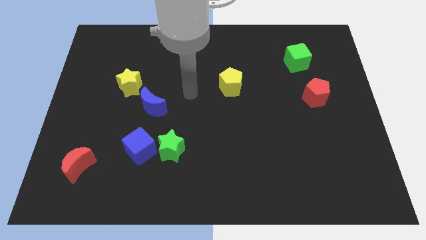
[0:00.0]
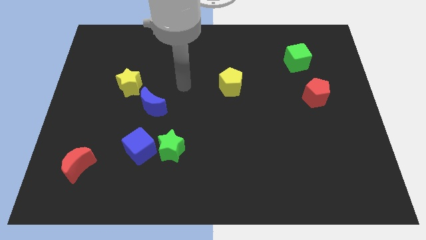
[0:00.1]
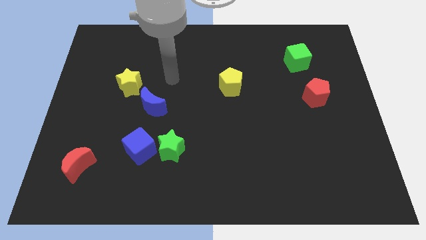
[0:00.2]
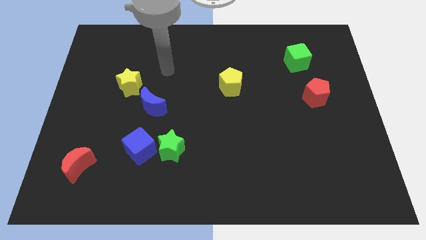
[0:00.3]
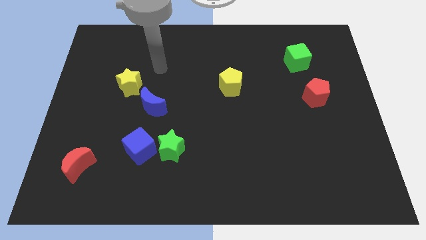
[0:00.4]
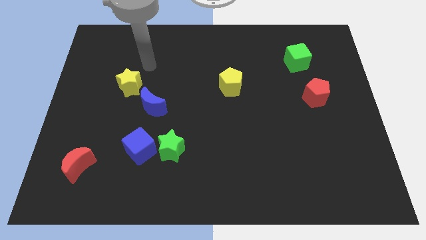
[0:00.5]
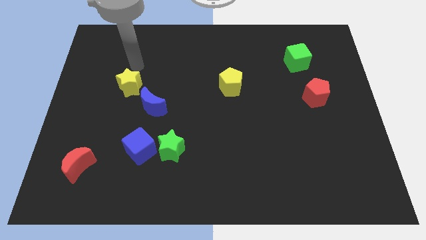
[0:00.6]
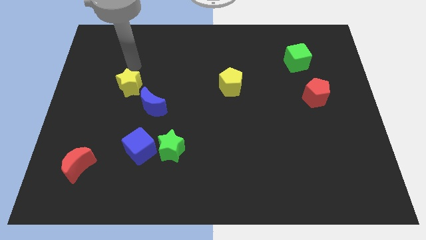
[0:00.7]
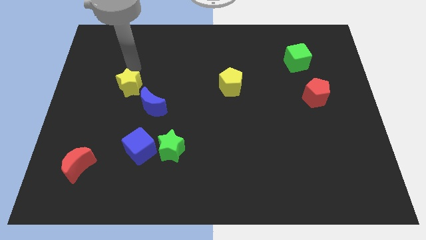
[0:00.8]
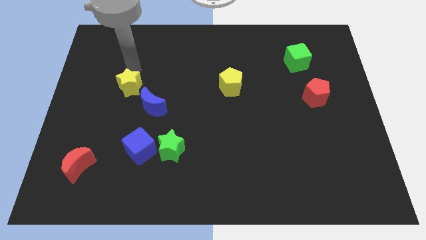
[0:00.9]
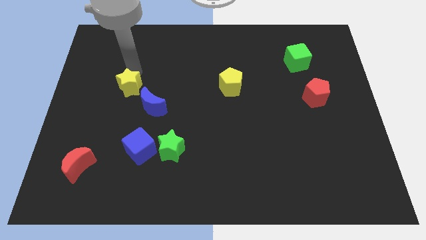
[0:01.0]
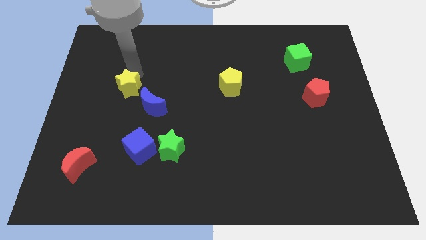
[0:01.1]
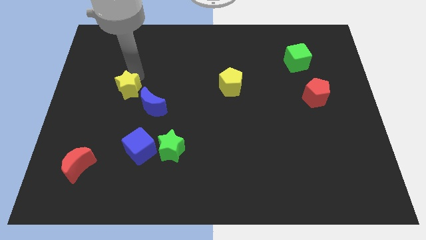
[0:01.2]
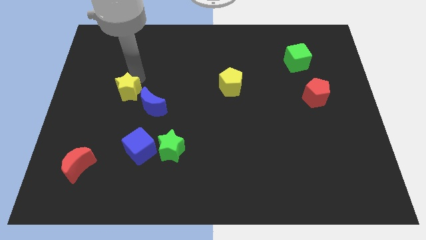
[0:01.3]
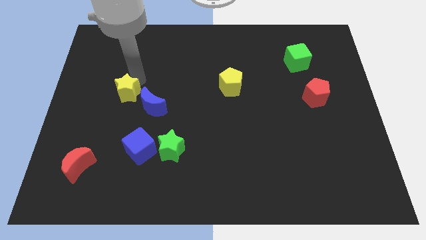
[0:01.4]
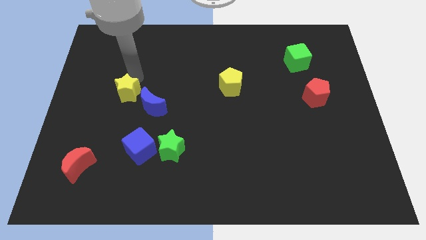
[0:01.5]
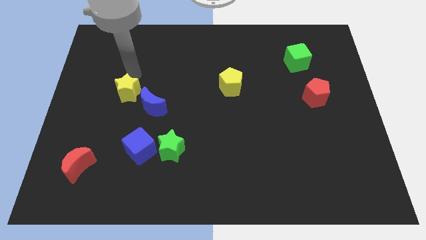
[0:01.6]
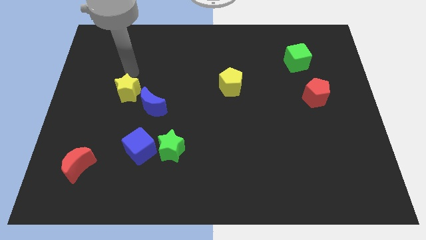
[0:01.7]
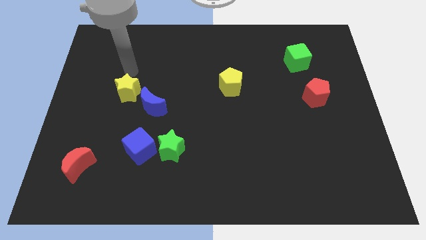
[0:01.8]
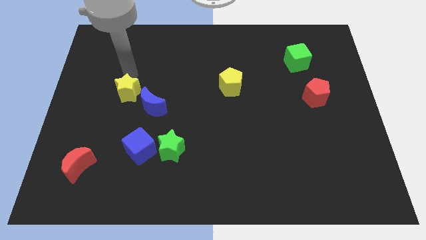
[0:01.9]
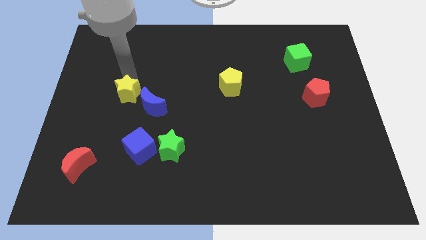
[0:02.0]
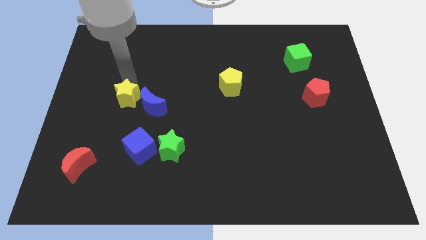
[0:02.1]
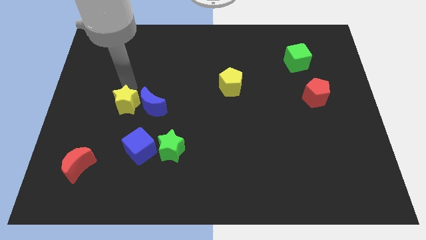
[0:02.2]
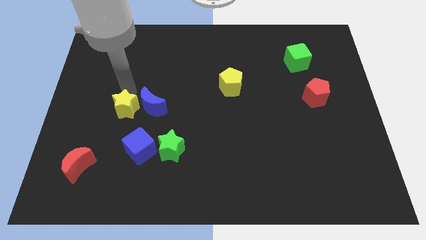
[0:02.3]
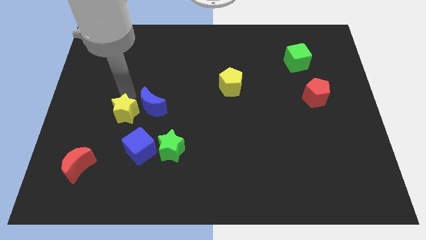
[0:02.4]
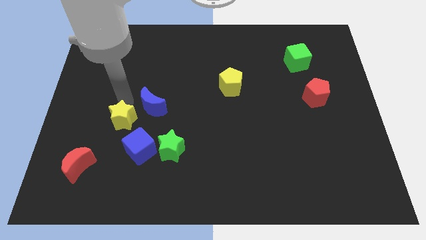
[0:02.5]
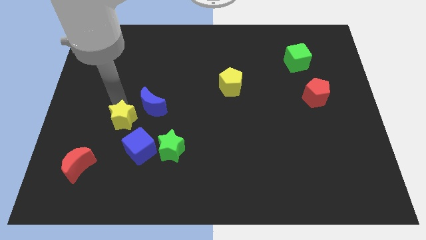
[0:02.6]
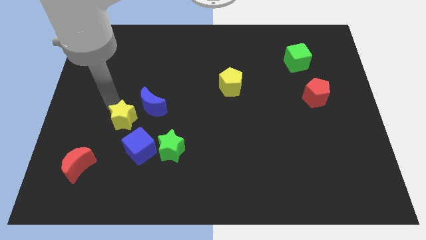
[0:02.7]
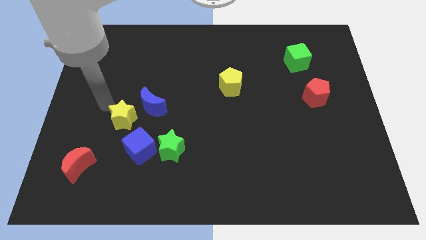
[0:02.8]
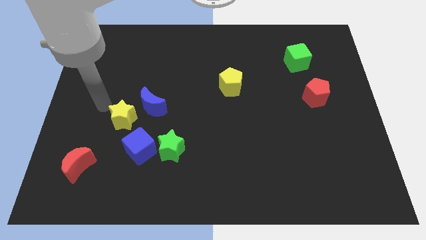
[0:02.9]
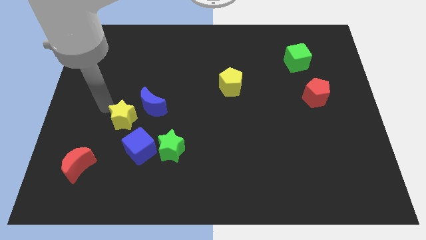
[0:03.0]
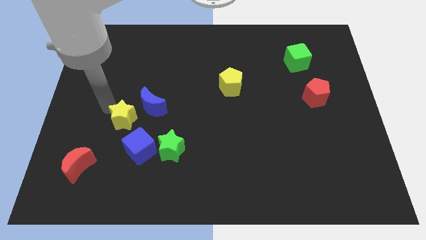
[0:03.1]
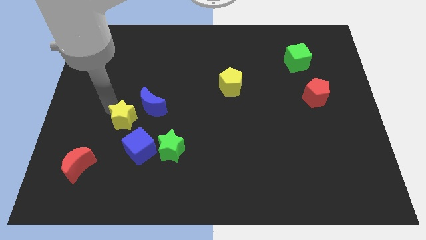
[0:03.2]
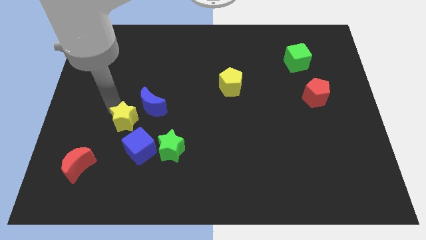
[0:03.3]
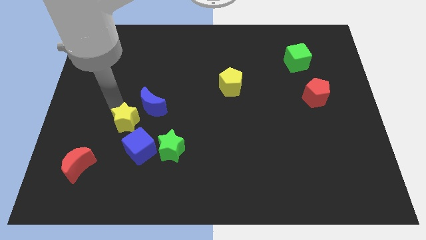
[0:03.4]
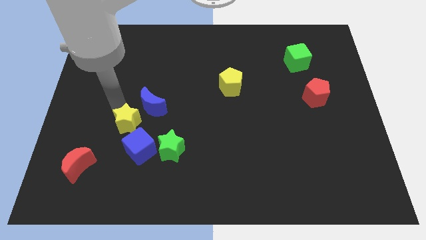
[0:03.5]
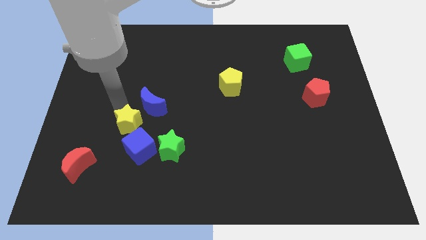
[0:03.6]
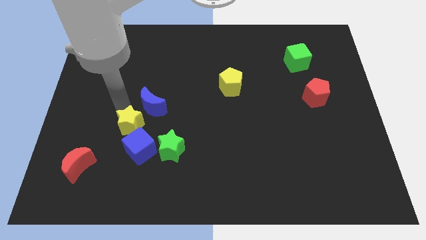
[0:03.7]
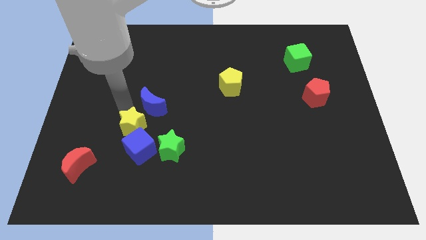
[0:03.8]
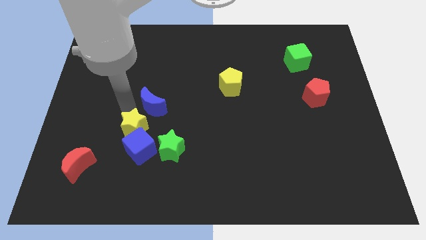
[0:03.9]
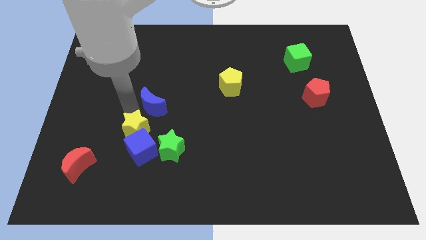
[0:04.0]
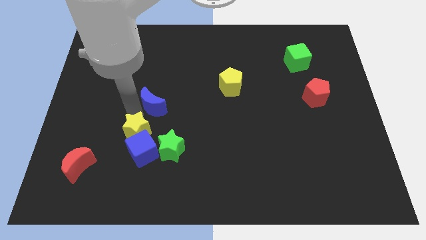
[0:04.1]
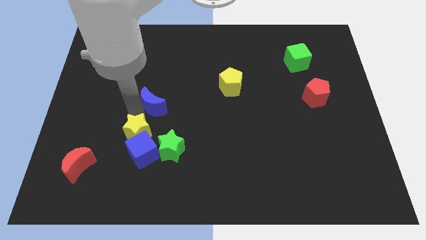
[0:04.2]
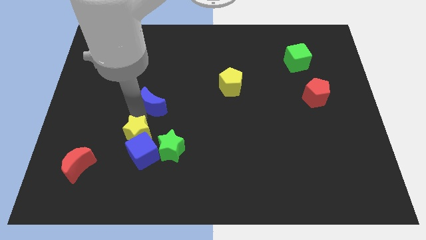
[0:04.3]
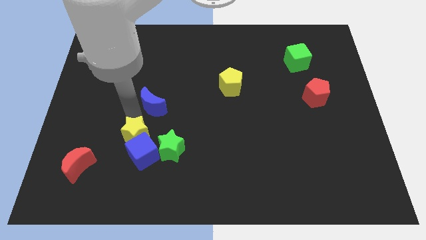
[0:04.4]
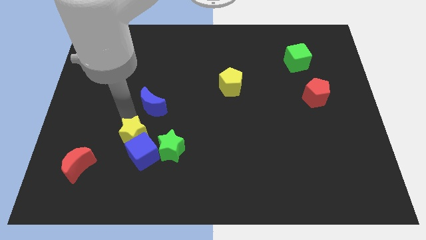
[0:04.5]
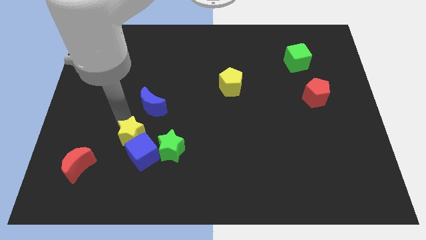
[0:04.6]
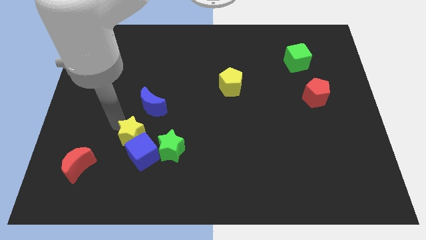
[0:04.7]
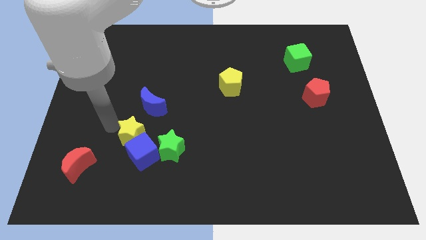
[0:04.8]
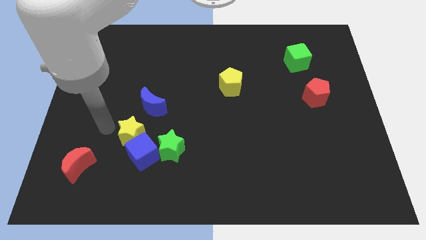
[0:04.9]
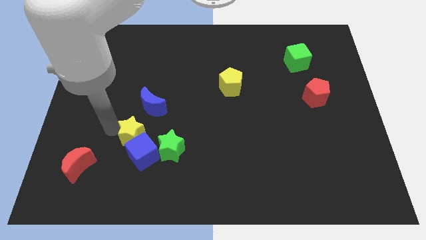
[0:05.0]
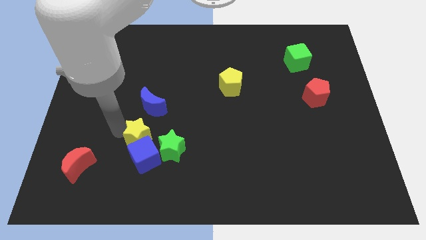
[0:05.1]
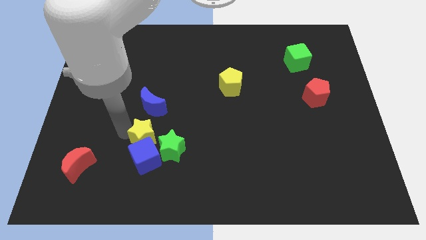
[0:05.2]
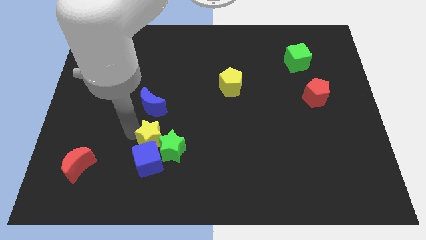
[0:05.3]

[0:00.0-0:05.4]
move the yellow star close to the green star

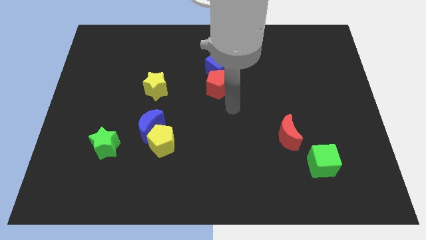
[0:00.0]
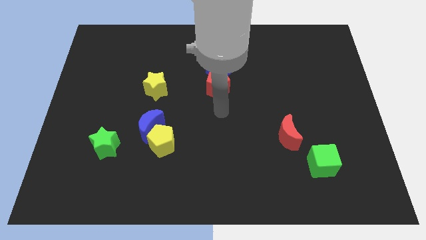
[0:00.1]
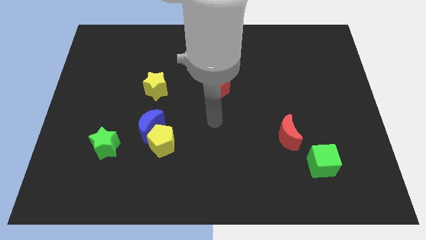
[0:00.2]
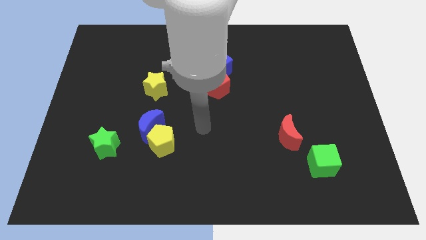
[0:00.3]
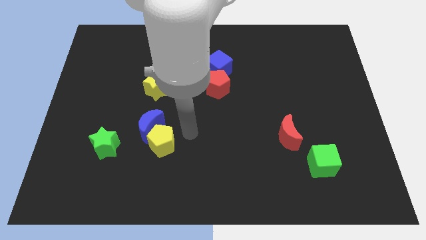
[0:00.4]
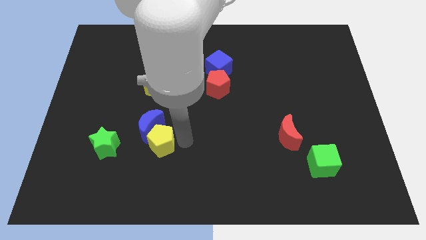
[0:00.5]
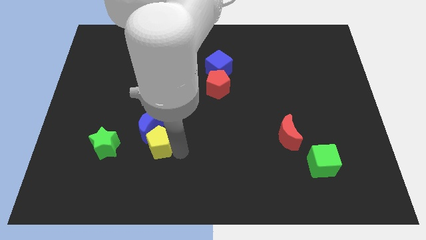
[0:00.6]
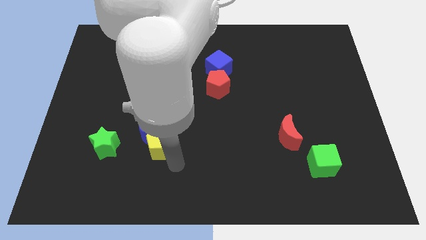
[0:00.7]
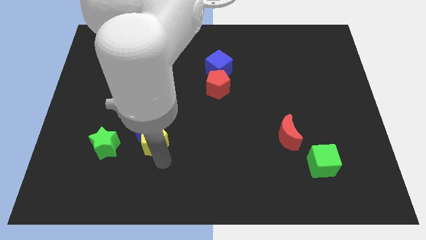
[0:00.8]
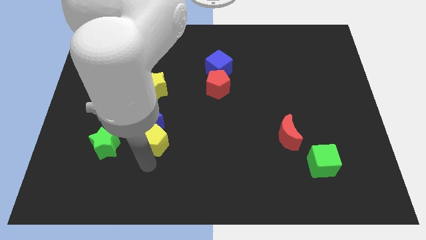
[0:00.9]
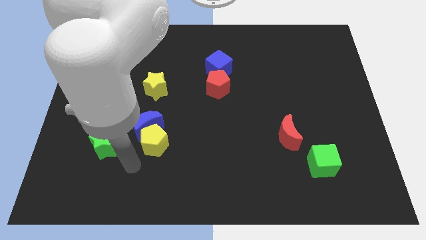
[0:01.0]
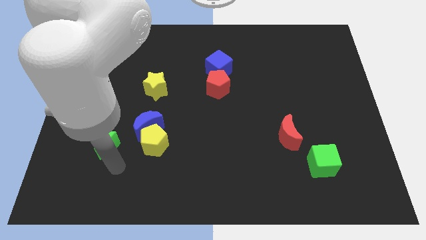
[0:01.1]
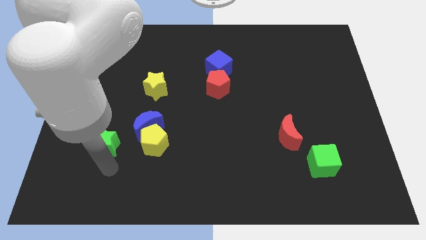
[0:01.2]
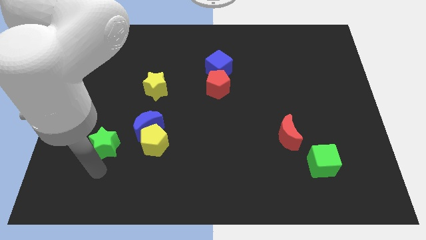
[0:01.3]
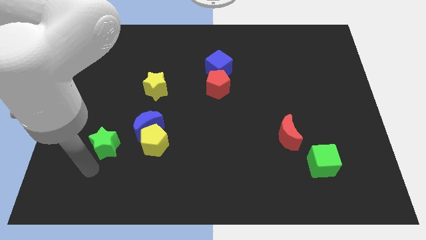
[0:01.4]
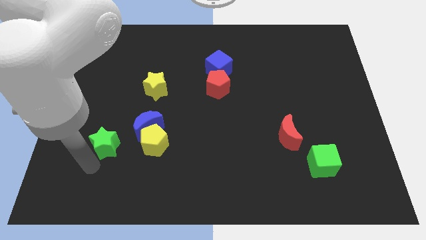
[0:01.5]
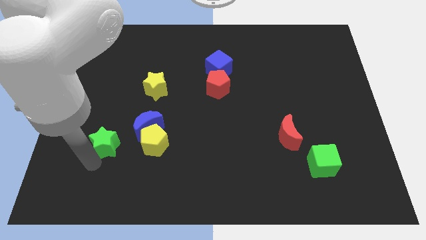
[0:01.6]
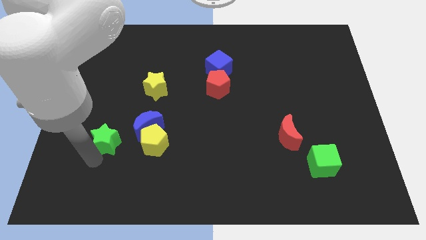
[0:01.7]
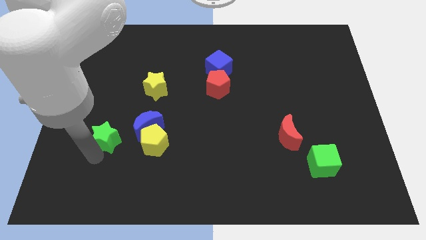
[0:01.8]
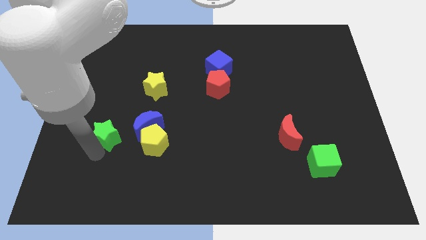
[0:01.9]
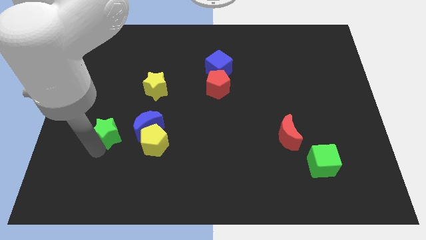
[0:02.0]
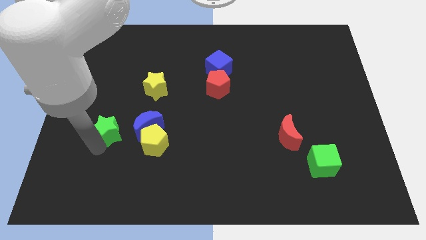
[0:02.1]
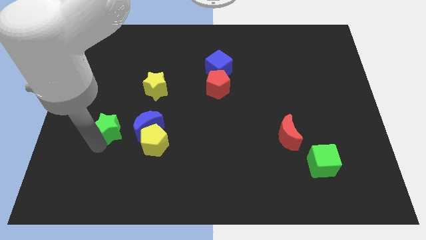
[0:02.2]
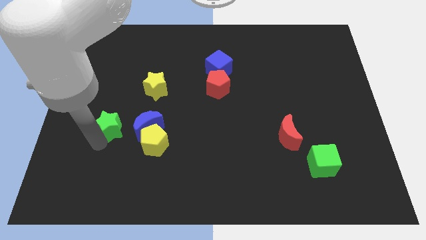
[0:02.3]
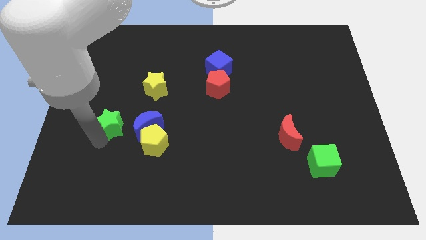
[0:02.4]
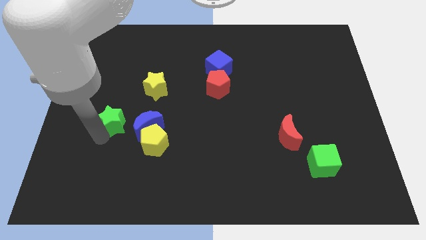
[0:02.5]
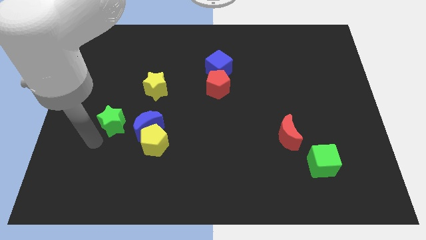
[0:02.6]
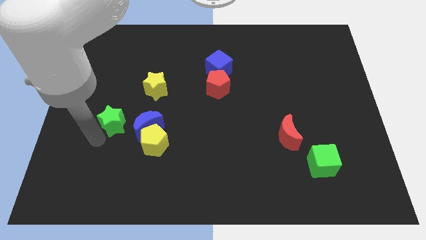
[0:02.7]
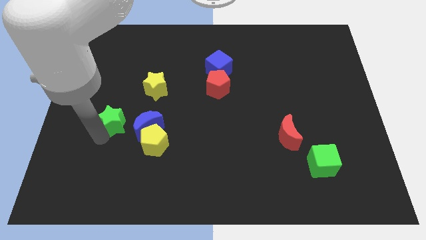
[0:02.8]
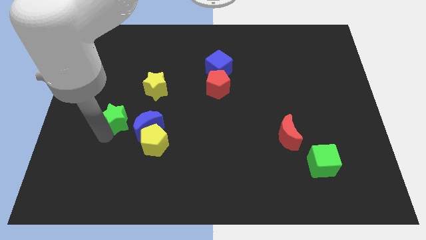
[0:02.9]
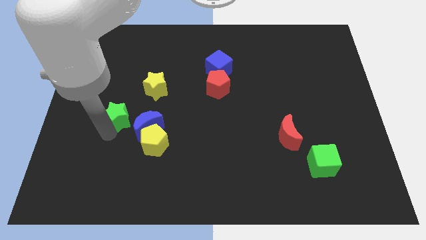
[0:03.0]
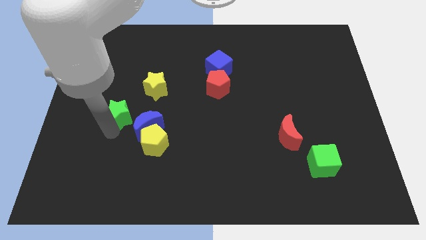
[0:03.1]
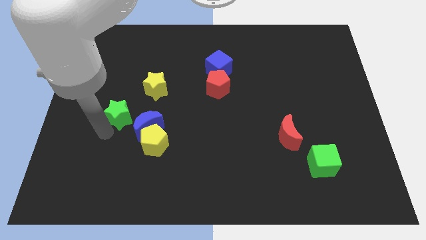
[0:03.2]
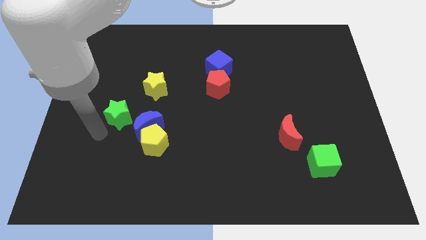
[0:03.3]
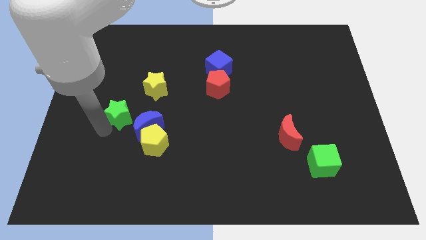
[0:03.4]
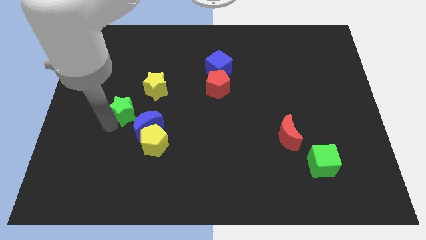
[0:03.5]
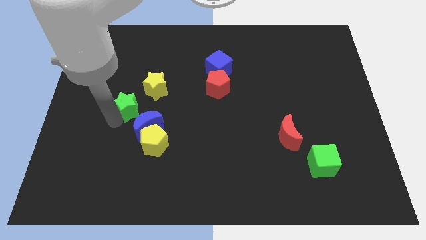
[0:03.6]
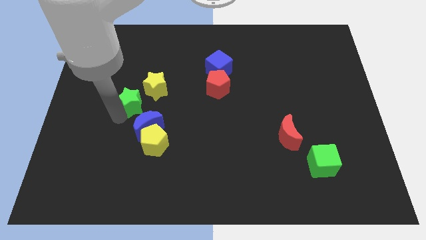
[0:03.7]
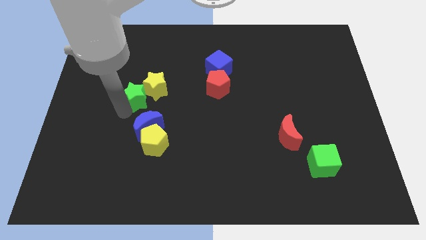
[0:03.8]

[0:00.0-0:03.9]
slide the green star to the yellow star
